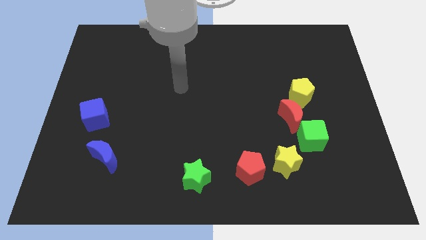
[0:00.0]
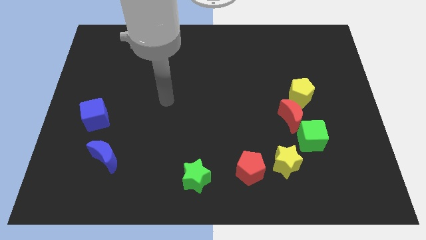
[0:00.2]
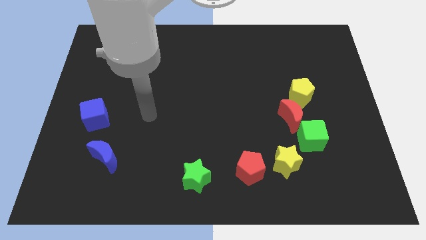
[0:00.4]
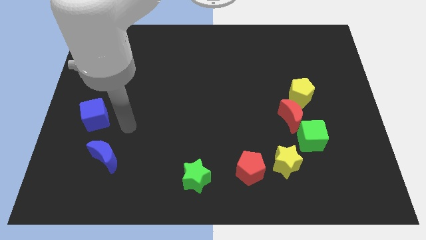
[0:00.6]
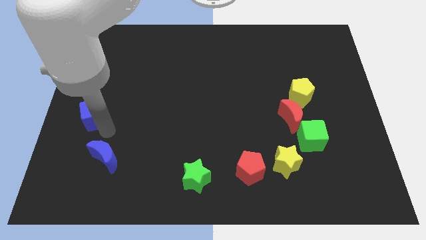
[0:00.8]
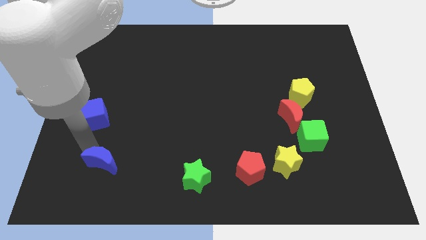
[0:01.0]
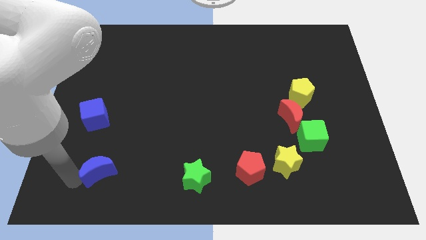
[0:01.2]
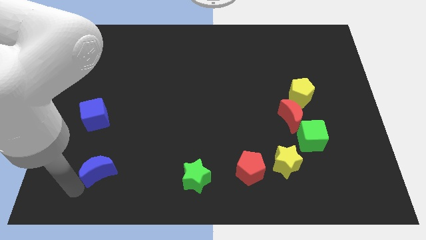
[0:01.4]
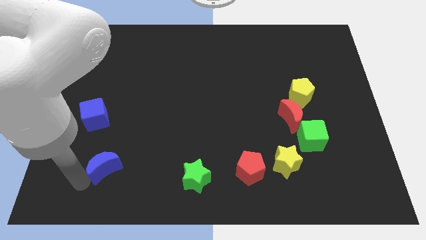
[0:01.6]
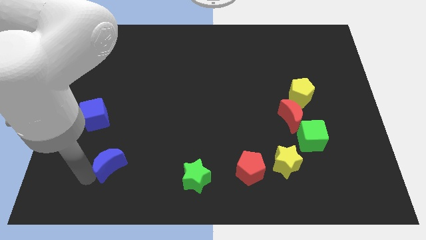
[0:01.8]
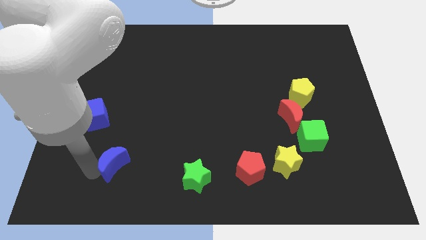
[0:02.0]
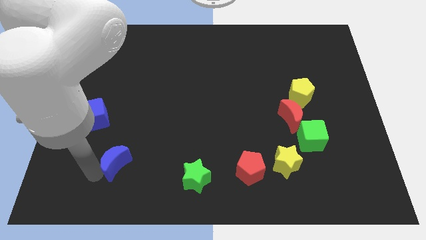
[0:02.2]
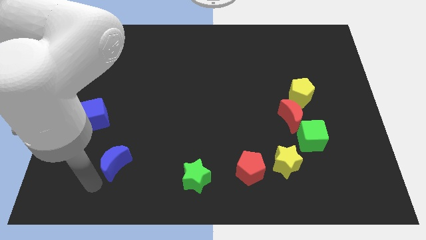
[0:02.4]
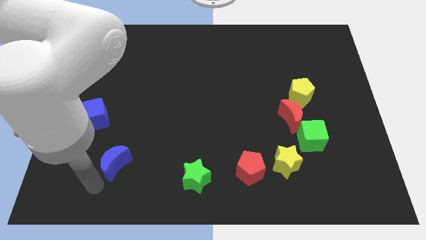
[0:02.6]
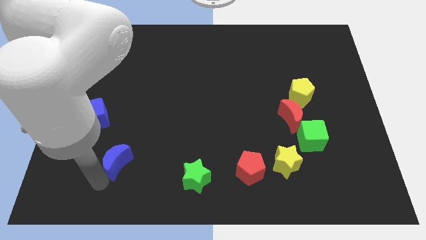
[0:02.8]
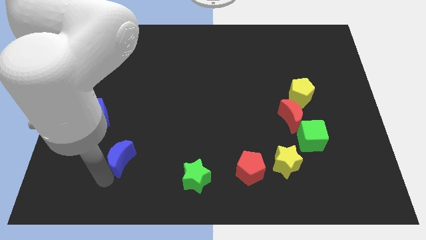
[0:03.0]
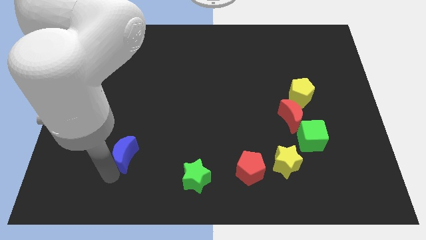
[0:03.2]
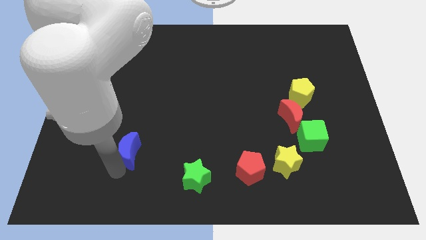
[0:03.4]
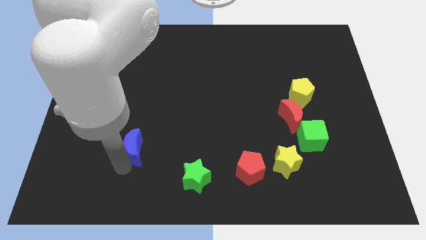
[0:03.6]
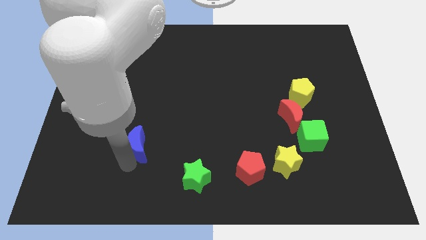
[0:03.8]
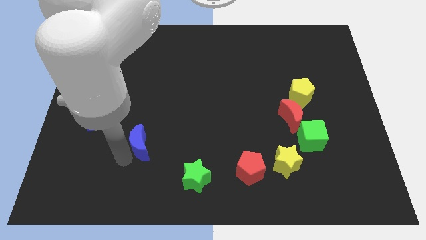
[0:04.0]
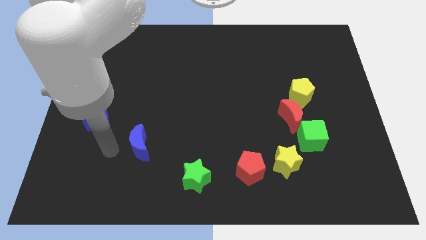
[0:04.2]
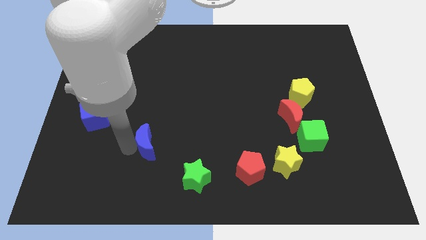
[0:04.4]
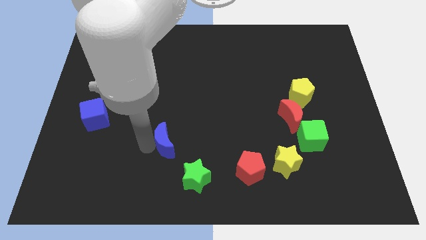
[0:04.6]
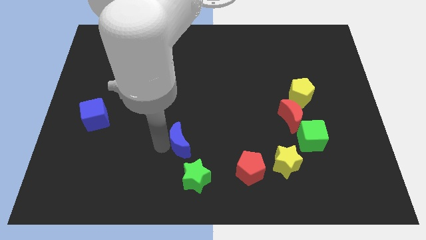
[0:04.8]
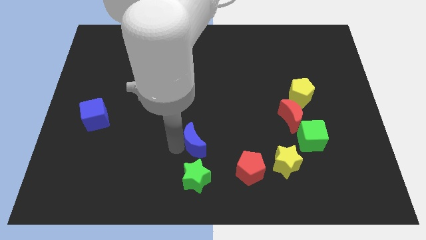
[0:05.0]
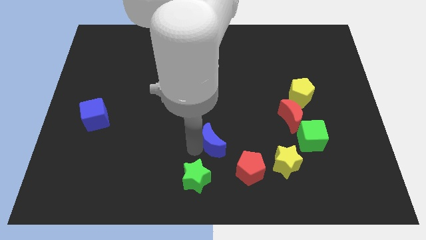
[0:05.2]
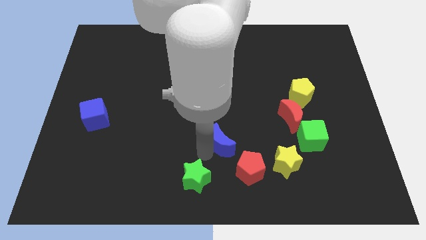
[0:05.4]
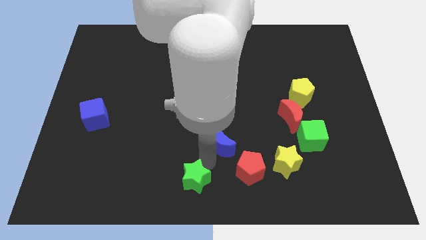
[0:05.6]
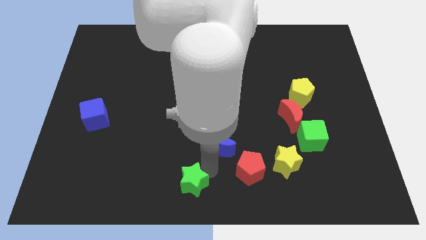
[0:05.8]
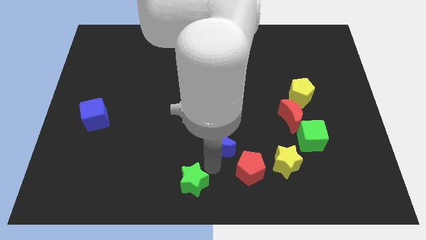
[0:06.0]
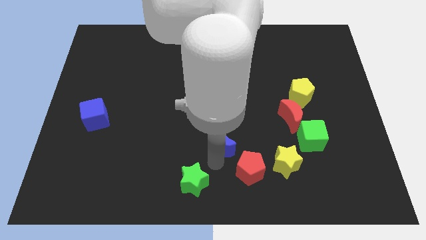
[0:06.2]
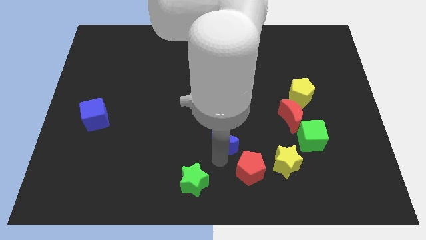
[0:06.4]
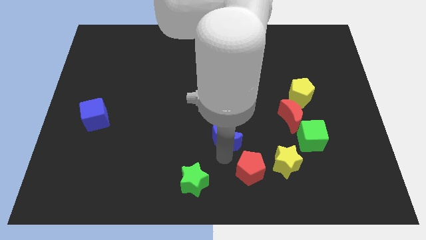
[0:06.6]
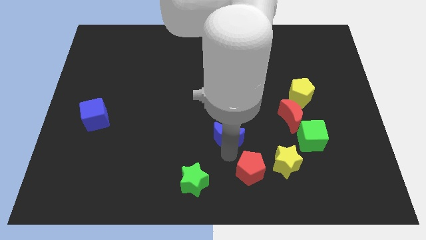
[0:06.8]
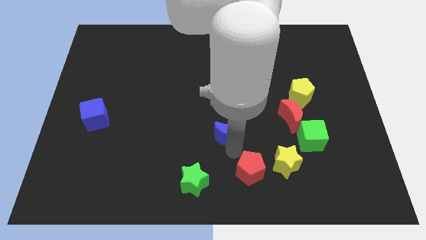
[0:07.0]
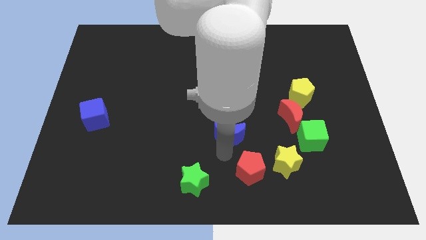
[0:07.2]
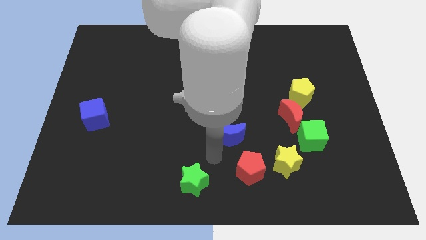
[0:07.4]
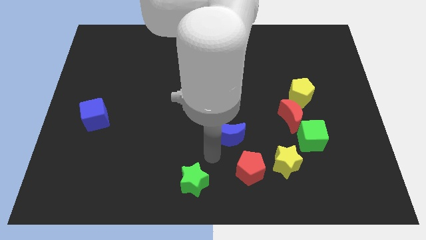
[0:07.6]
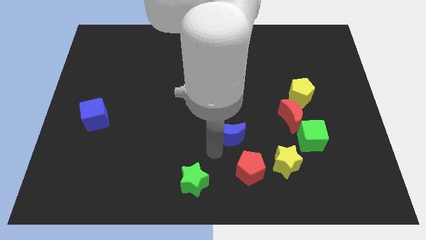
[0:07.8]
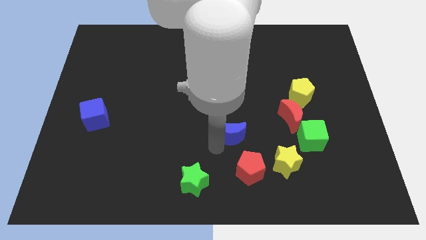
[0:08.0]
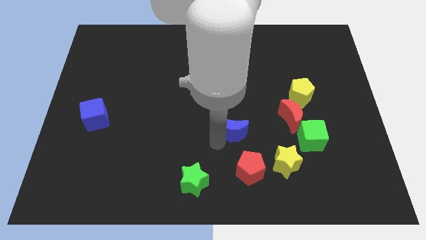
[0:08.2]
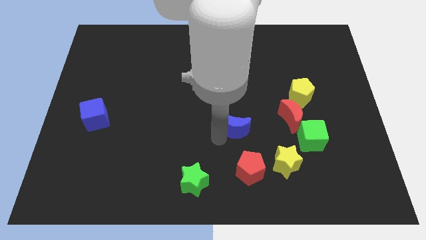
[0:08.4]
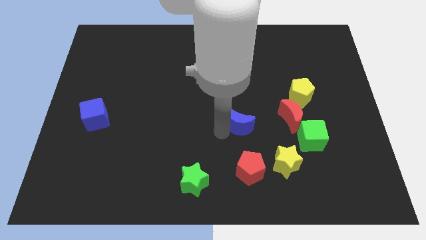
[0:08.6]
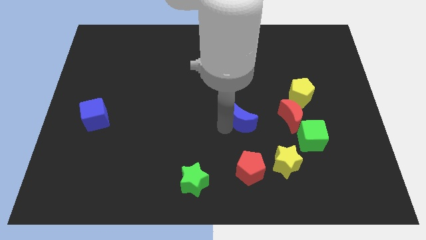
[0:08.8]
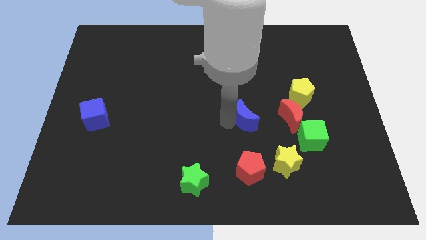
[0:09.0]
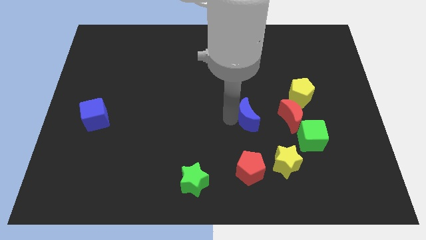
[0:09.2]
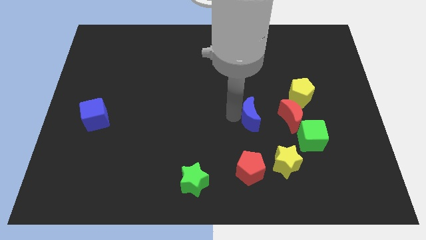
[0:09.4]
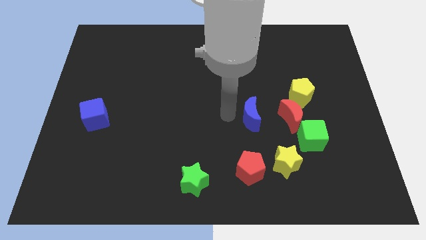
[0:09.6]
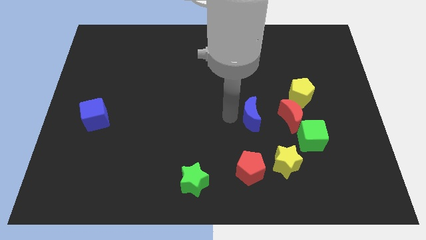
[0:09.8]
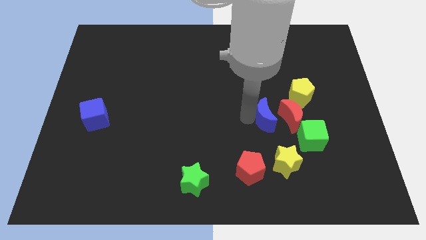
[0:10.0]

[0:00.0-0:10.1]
move the blue moon to the top left side of the green cube

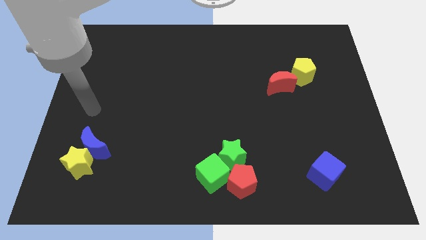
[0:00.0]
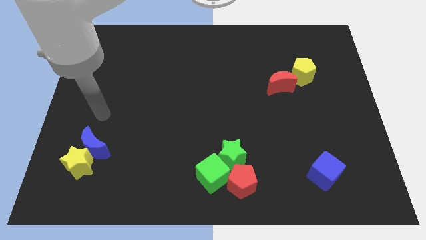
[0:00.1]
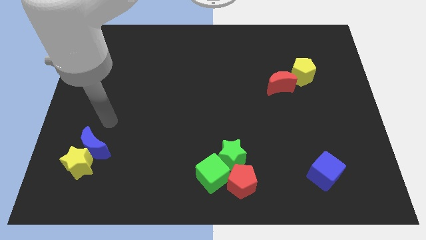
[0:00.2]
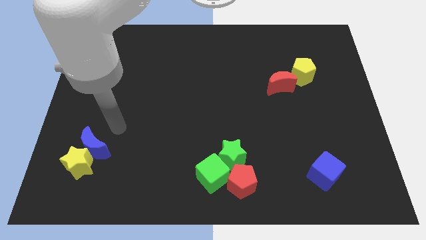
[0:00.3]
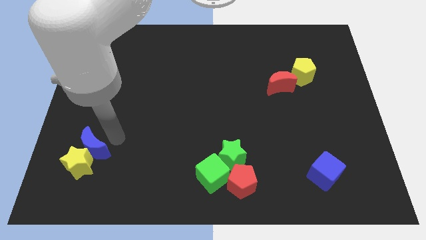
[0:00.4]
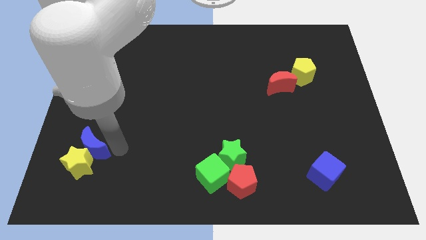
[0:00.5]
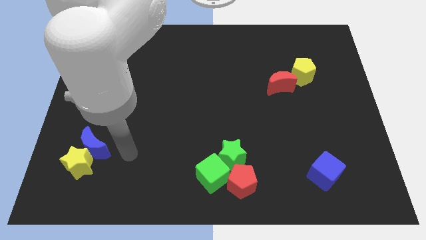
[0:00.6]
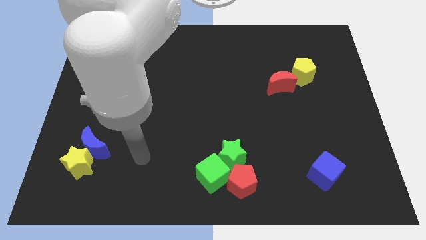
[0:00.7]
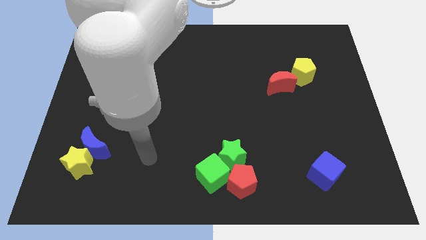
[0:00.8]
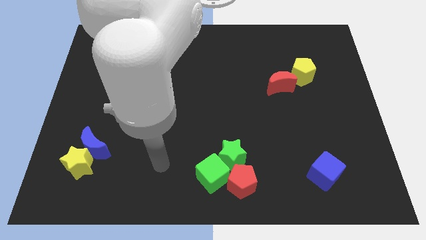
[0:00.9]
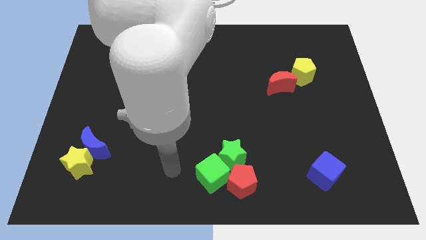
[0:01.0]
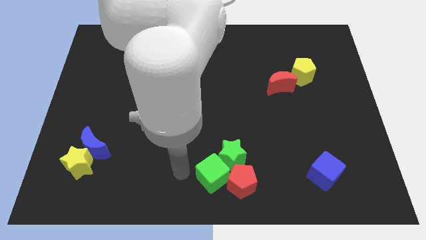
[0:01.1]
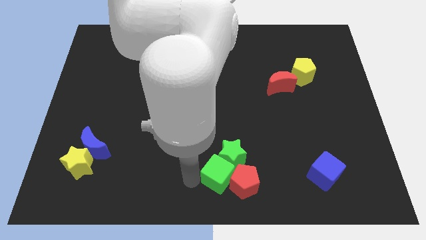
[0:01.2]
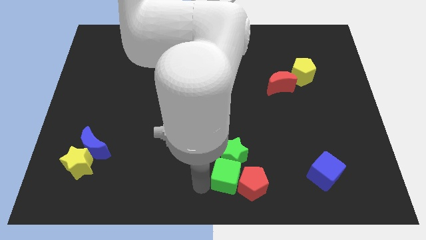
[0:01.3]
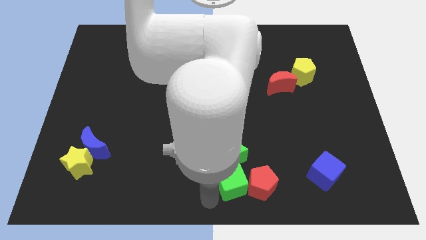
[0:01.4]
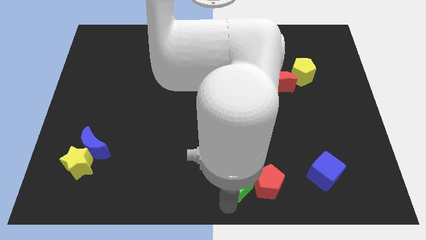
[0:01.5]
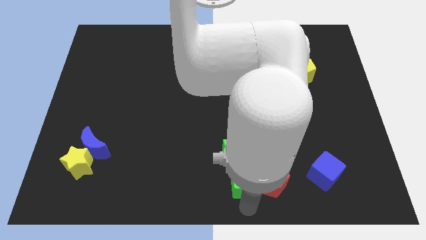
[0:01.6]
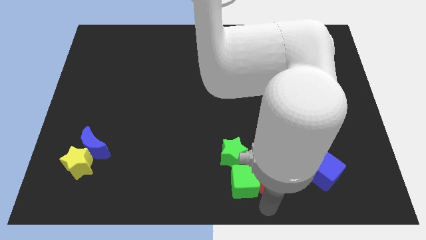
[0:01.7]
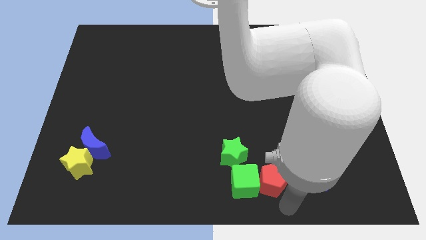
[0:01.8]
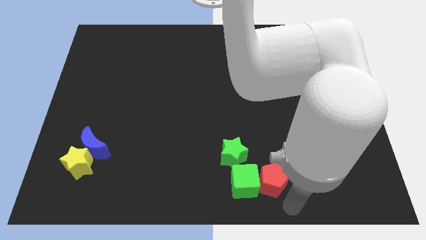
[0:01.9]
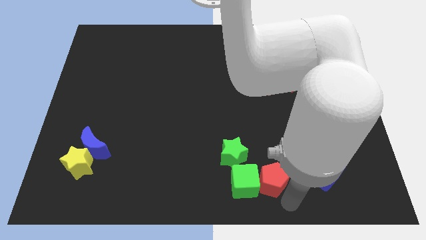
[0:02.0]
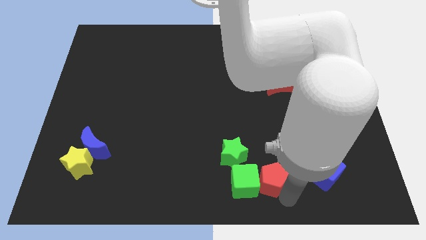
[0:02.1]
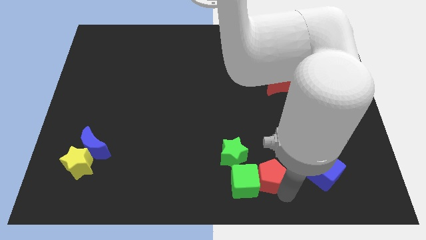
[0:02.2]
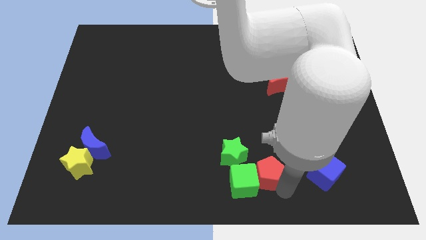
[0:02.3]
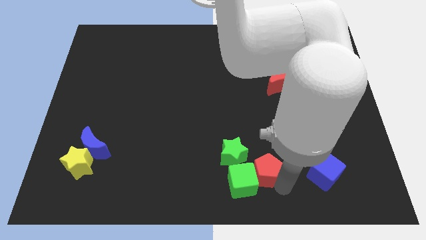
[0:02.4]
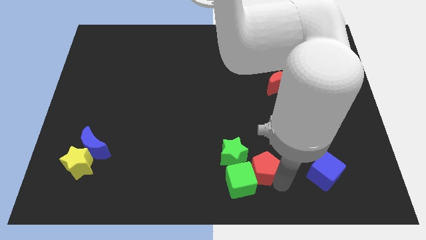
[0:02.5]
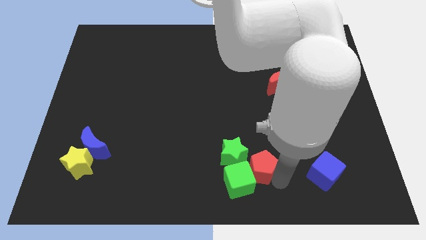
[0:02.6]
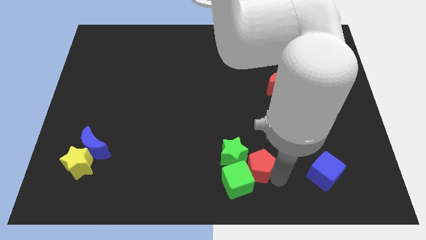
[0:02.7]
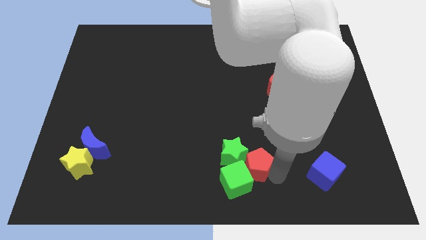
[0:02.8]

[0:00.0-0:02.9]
push the red pentagon to the top side of the green cube
